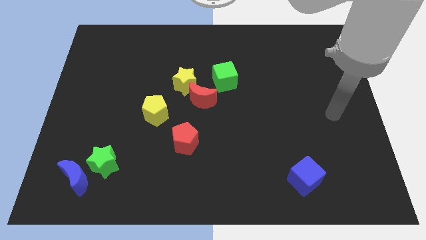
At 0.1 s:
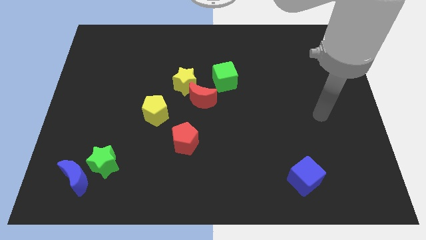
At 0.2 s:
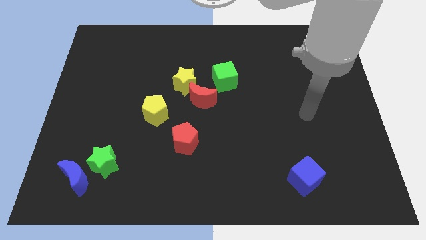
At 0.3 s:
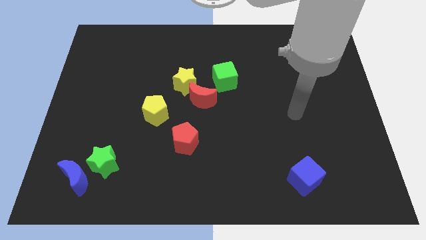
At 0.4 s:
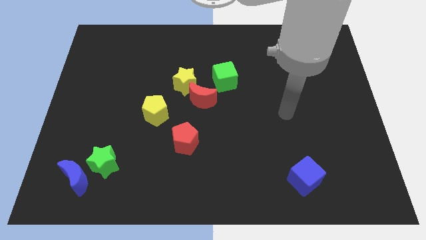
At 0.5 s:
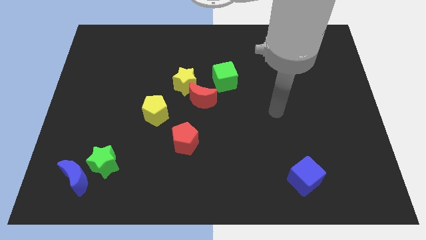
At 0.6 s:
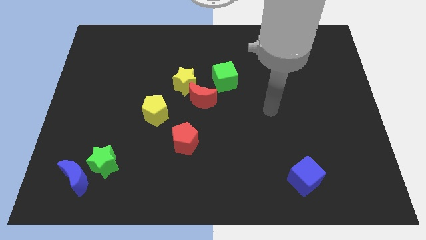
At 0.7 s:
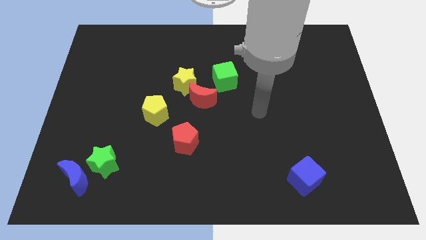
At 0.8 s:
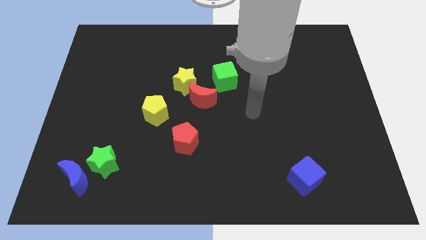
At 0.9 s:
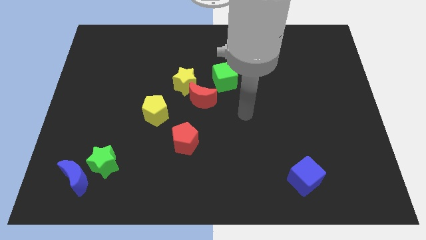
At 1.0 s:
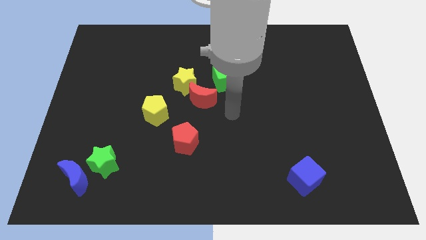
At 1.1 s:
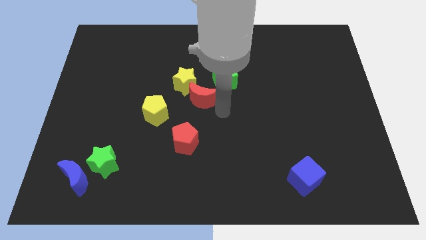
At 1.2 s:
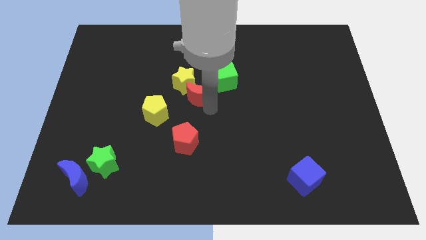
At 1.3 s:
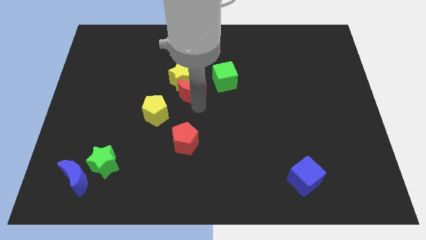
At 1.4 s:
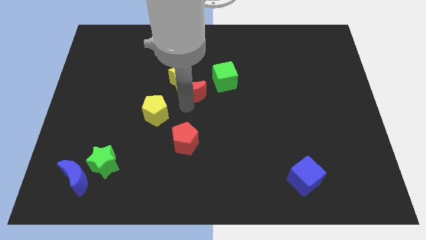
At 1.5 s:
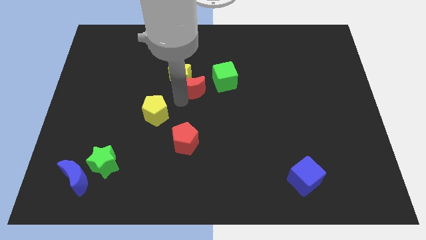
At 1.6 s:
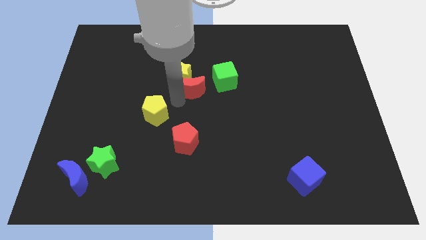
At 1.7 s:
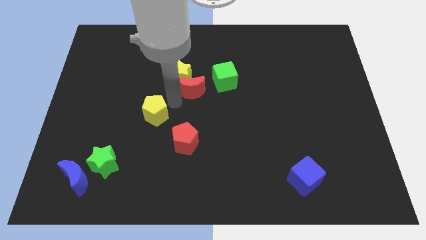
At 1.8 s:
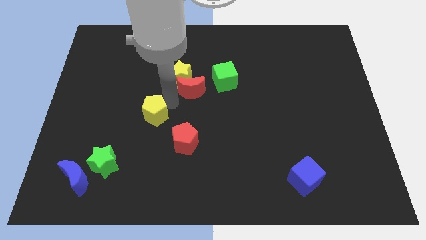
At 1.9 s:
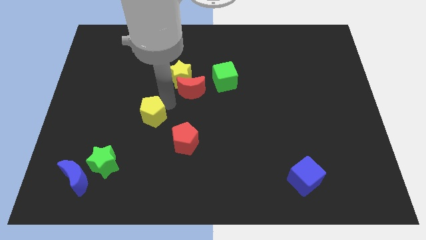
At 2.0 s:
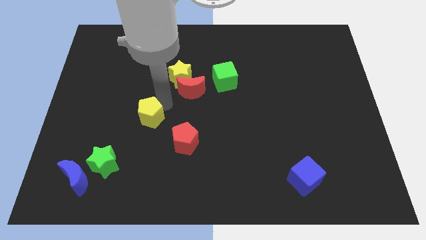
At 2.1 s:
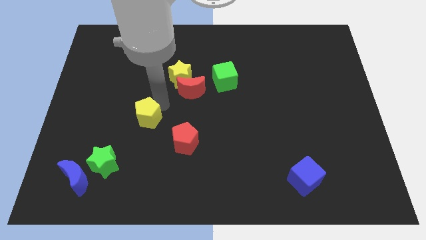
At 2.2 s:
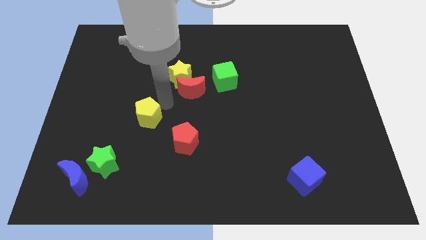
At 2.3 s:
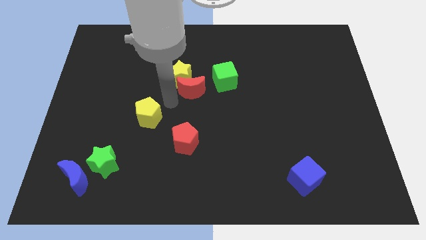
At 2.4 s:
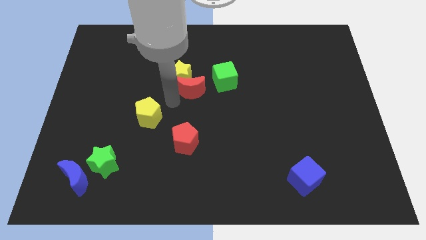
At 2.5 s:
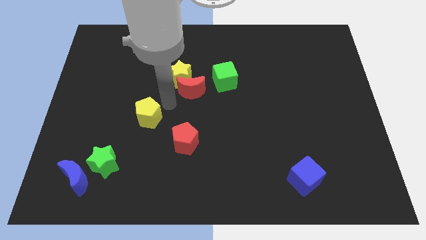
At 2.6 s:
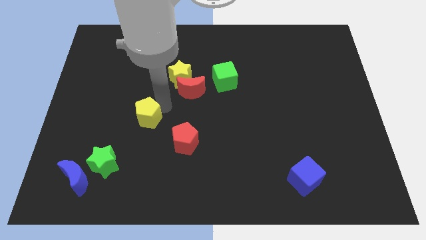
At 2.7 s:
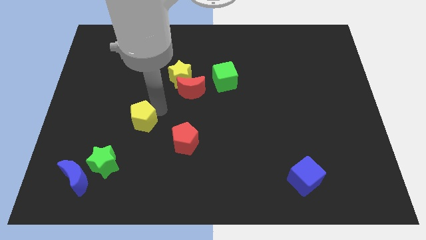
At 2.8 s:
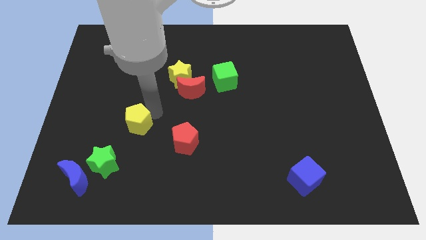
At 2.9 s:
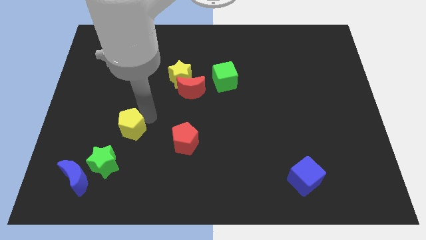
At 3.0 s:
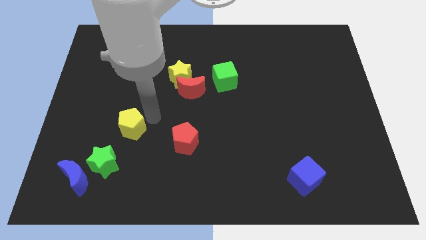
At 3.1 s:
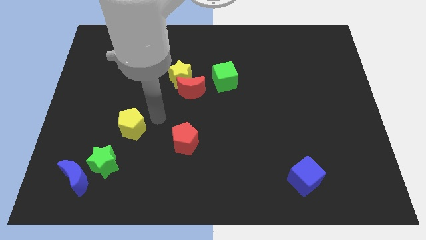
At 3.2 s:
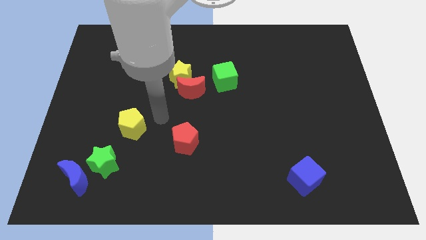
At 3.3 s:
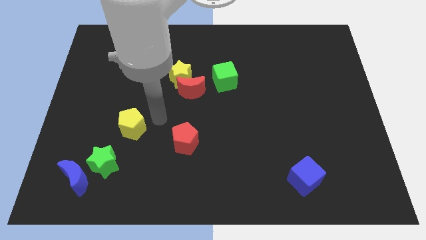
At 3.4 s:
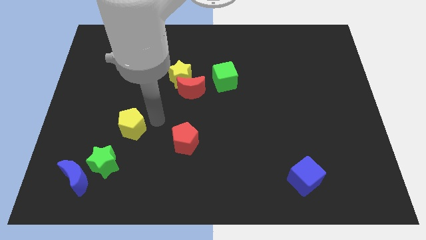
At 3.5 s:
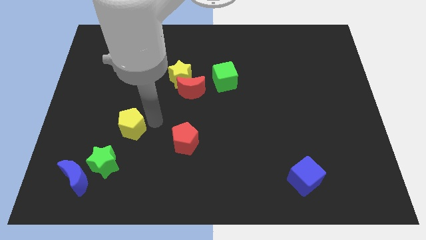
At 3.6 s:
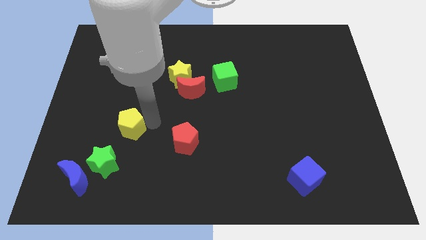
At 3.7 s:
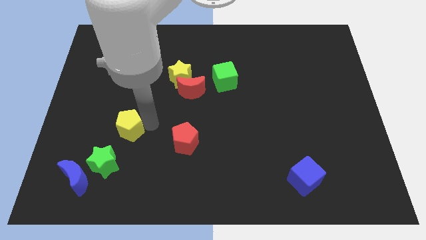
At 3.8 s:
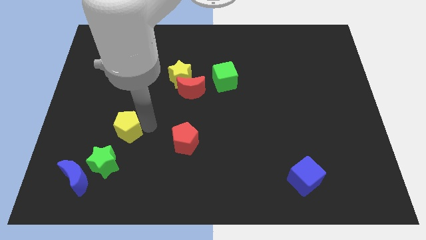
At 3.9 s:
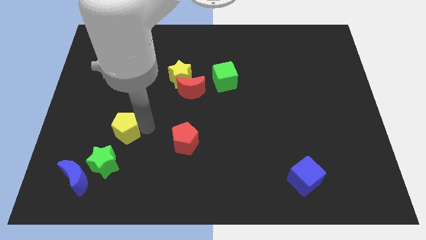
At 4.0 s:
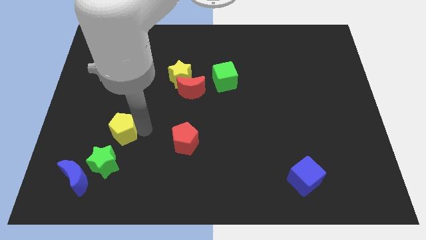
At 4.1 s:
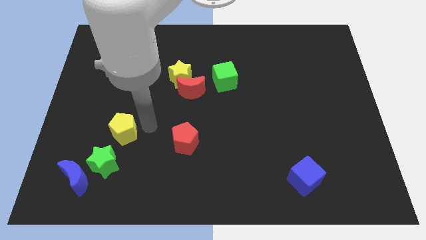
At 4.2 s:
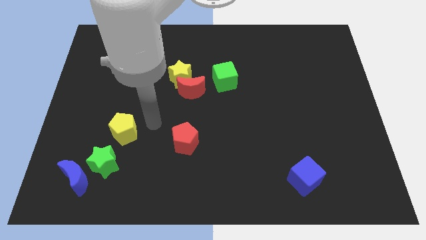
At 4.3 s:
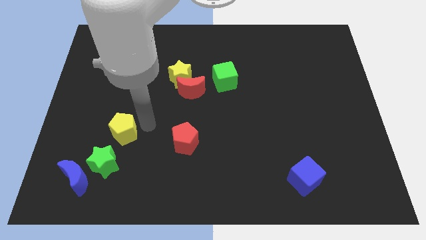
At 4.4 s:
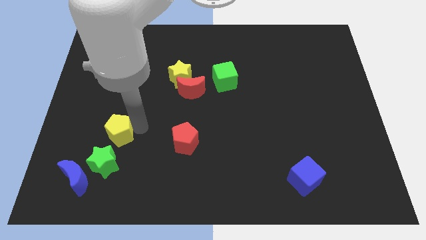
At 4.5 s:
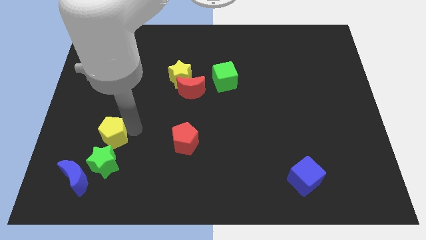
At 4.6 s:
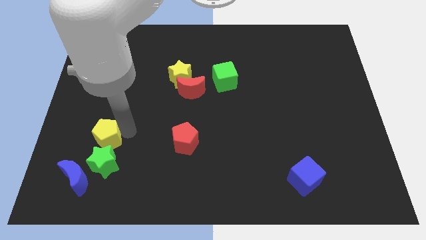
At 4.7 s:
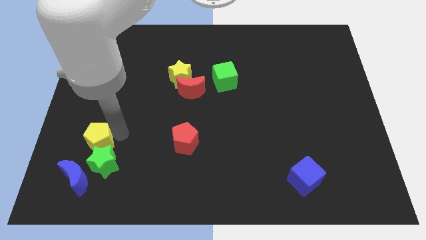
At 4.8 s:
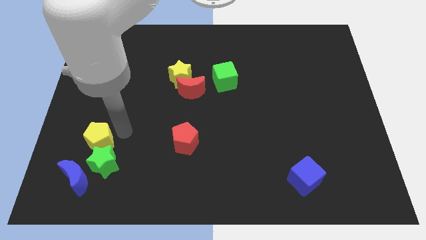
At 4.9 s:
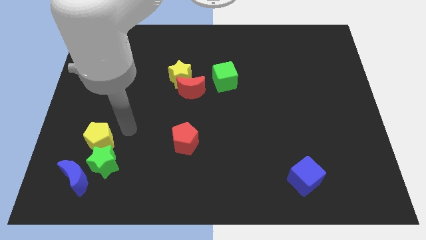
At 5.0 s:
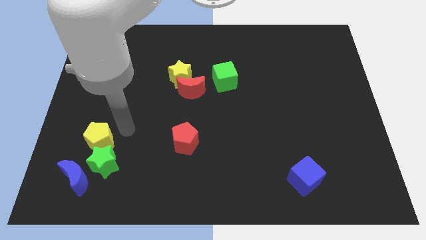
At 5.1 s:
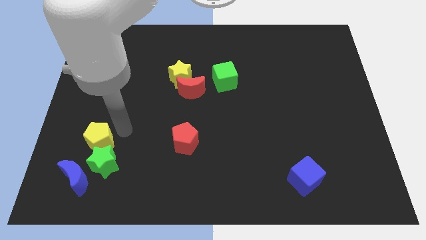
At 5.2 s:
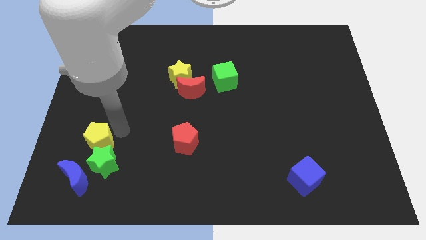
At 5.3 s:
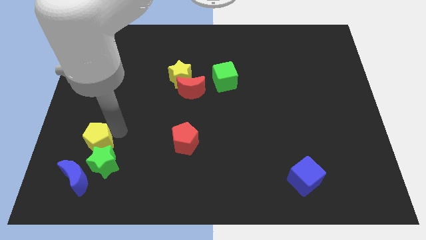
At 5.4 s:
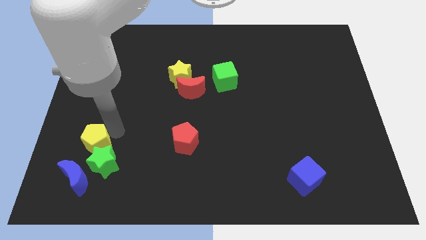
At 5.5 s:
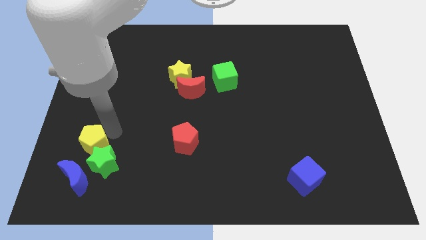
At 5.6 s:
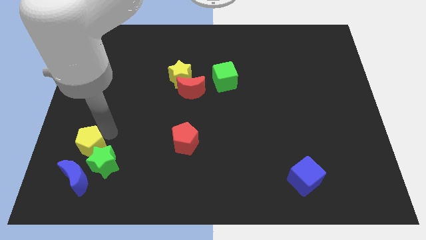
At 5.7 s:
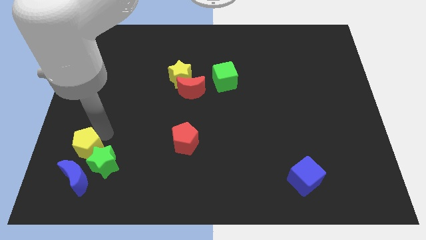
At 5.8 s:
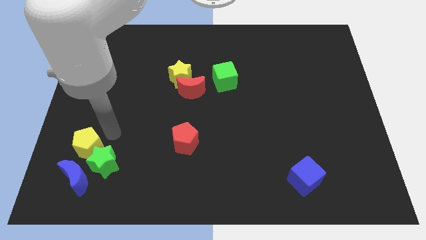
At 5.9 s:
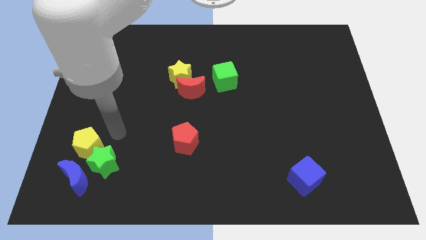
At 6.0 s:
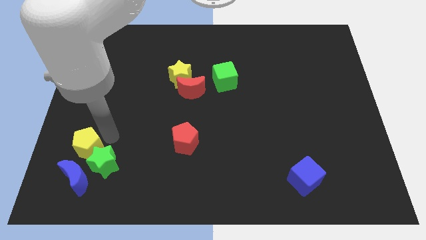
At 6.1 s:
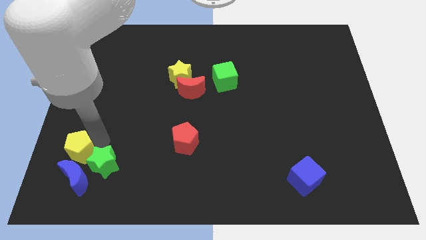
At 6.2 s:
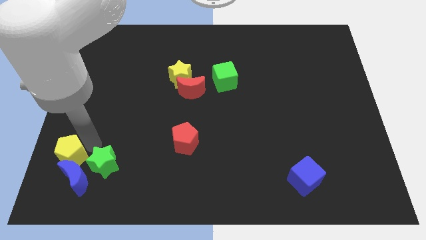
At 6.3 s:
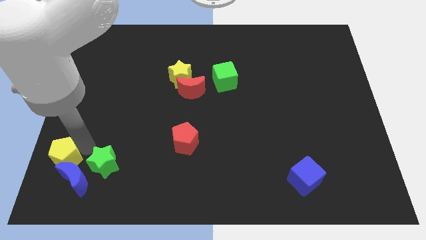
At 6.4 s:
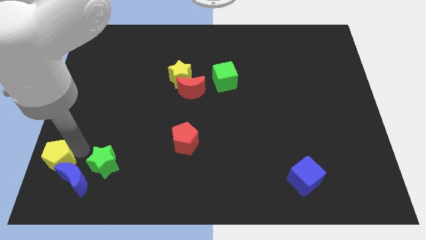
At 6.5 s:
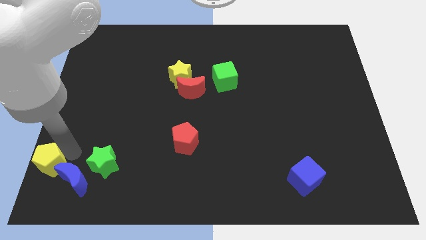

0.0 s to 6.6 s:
put the yellow pentagon to the bottom left

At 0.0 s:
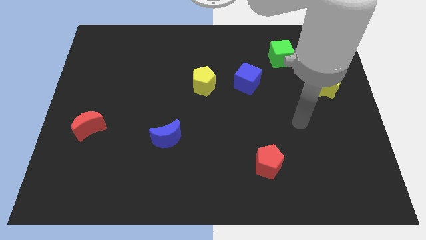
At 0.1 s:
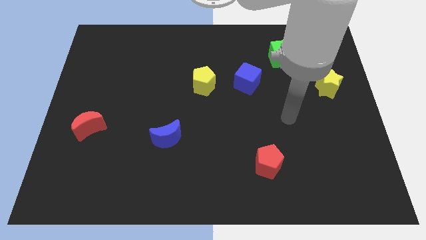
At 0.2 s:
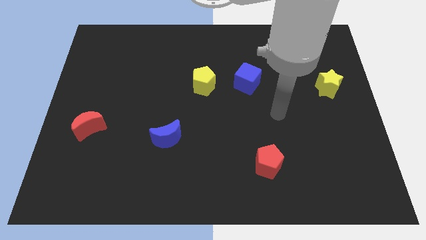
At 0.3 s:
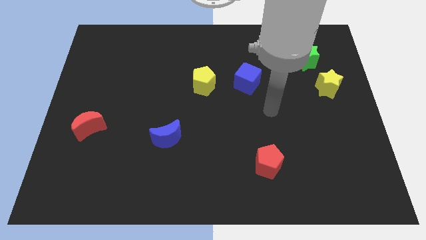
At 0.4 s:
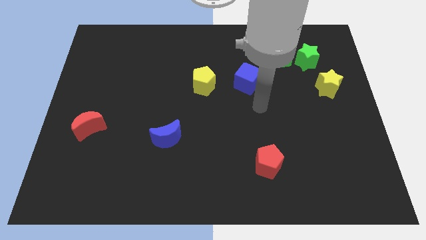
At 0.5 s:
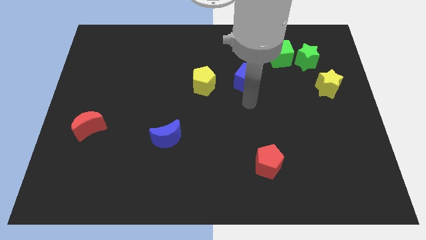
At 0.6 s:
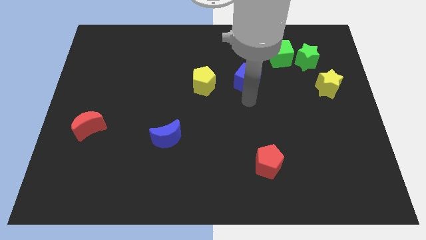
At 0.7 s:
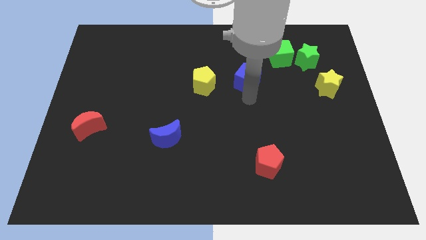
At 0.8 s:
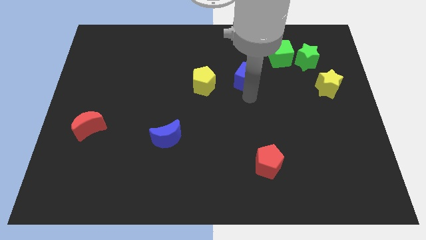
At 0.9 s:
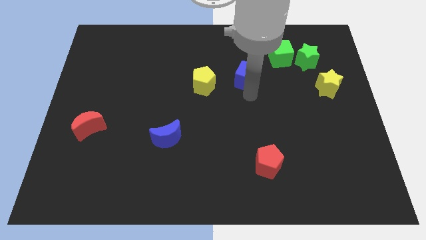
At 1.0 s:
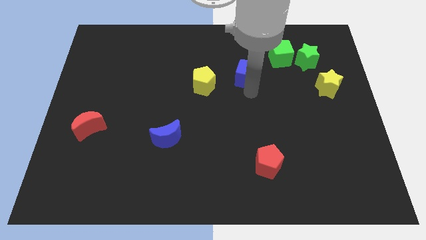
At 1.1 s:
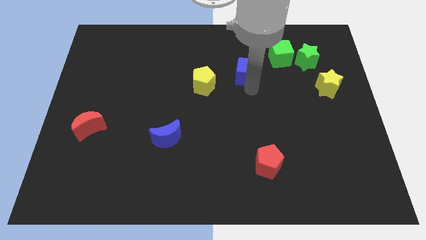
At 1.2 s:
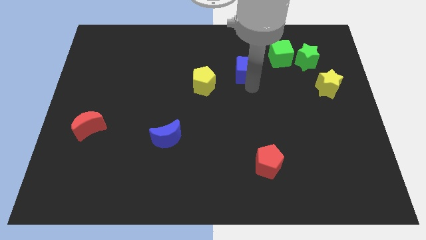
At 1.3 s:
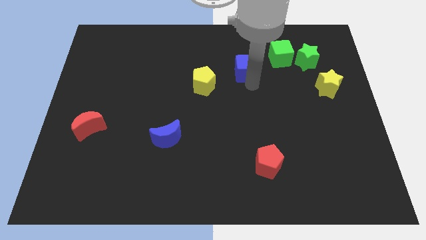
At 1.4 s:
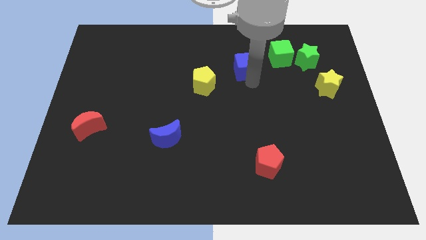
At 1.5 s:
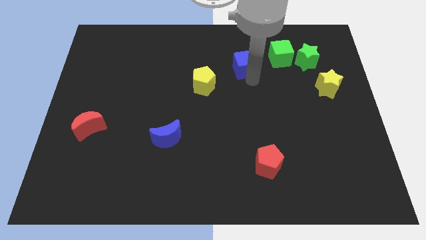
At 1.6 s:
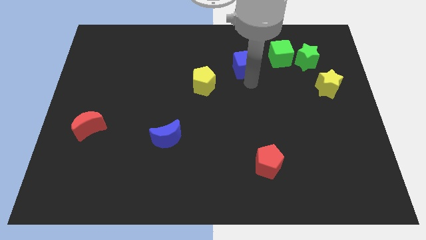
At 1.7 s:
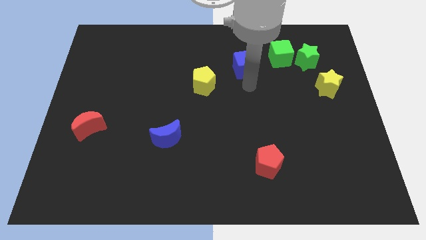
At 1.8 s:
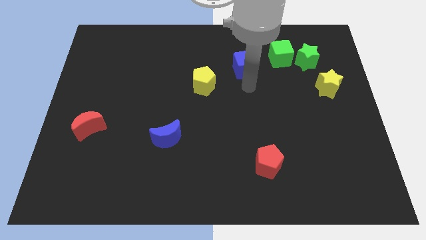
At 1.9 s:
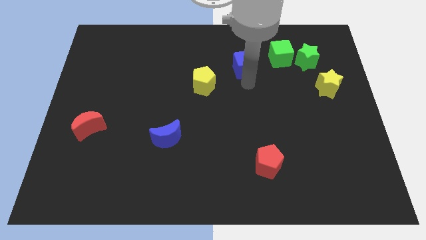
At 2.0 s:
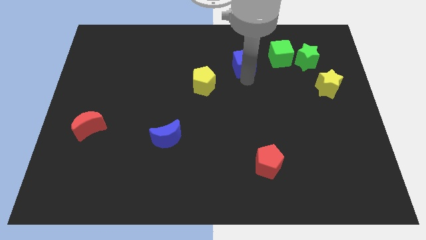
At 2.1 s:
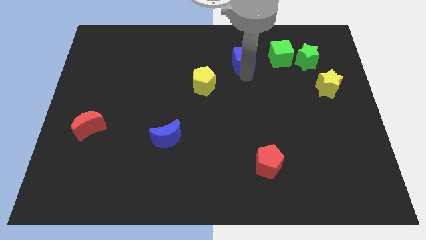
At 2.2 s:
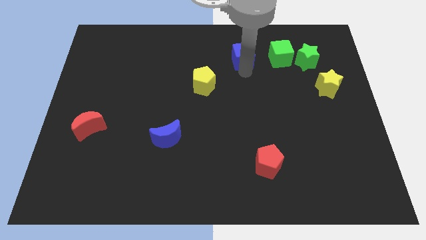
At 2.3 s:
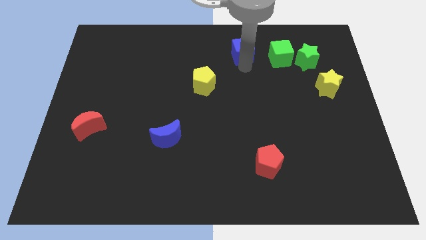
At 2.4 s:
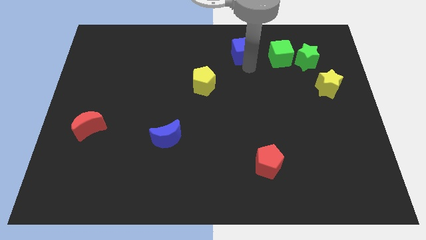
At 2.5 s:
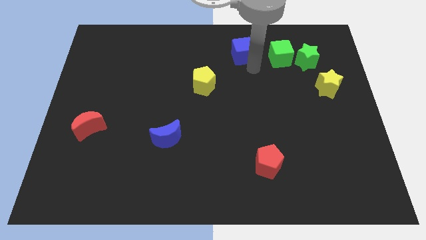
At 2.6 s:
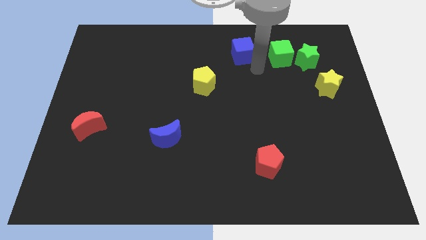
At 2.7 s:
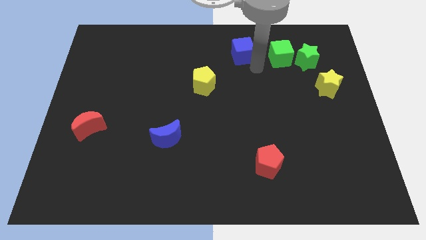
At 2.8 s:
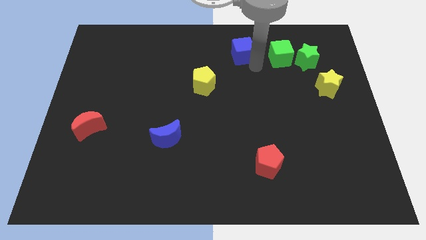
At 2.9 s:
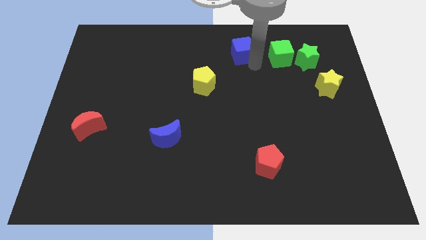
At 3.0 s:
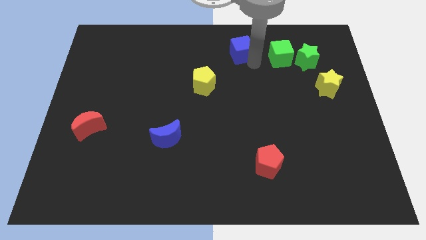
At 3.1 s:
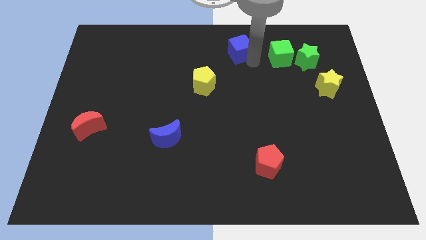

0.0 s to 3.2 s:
slide the blue cube to the top side
